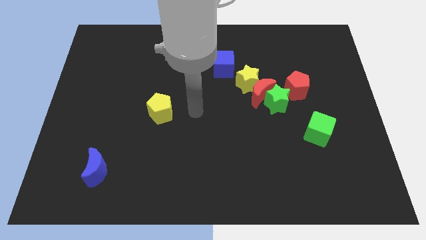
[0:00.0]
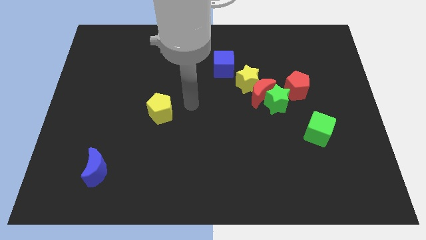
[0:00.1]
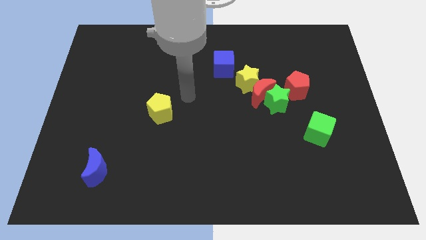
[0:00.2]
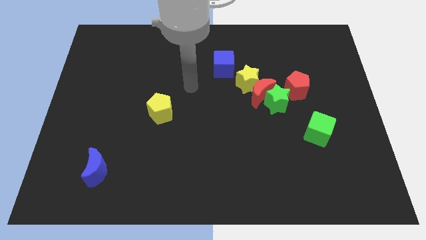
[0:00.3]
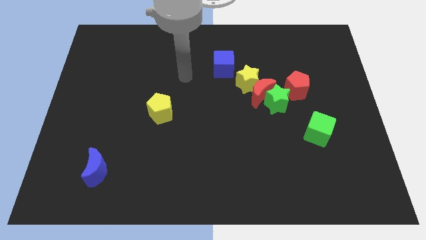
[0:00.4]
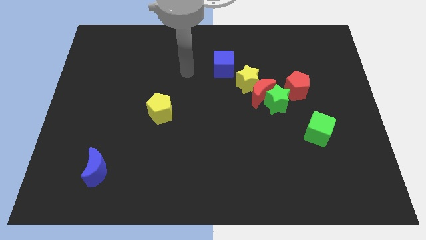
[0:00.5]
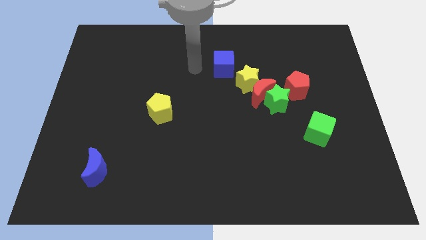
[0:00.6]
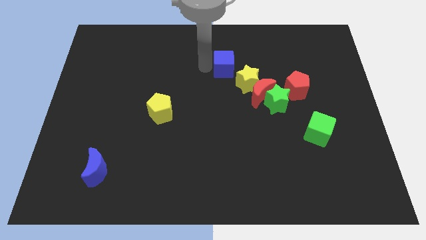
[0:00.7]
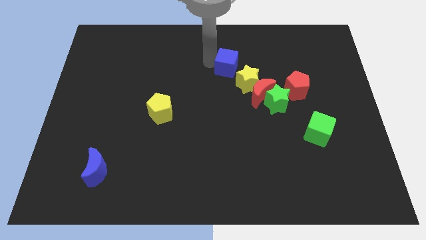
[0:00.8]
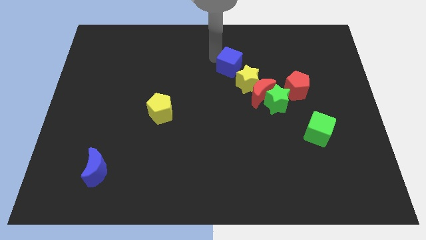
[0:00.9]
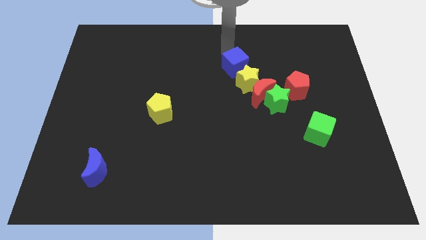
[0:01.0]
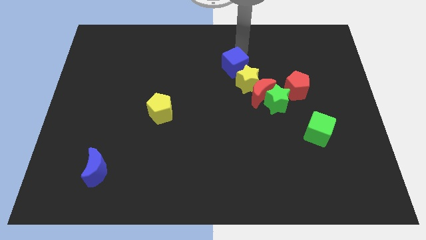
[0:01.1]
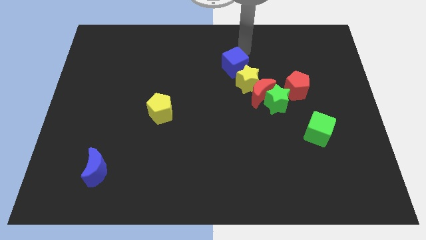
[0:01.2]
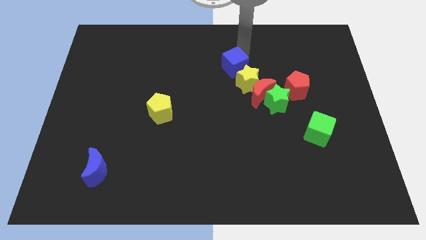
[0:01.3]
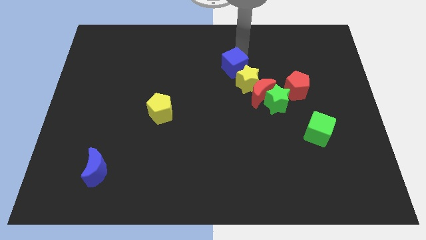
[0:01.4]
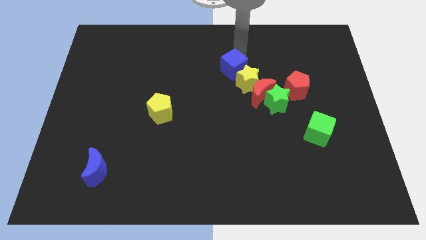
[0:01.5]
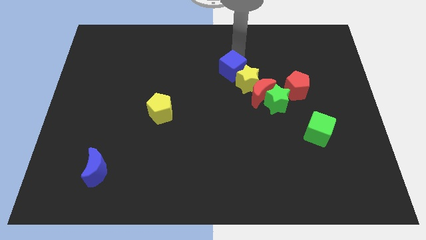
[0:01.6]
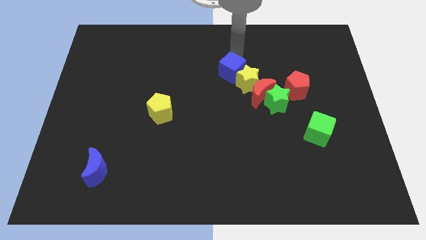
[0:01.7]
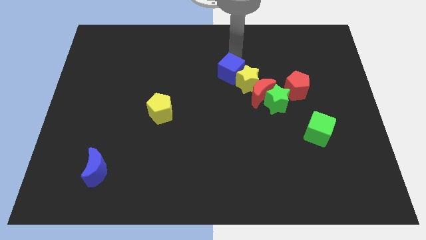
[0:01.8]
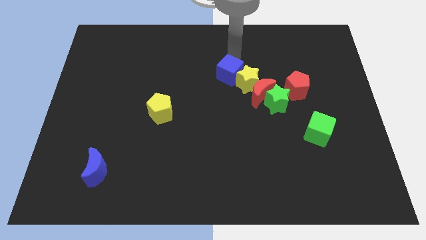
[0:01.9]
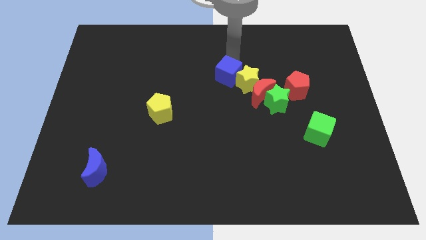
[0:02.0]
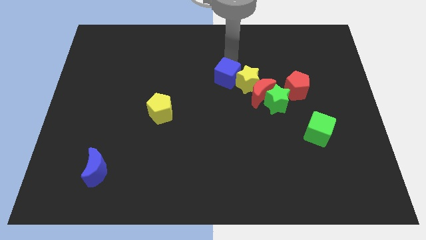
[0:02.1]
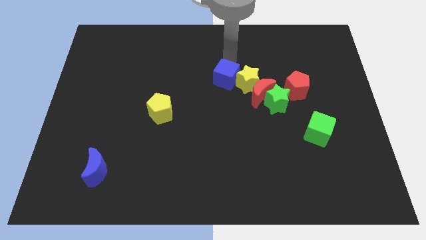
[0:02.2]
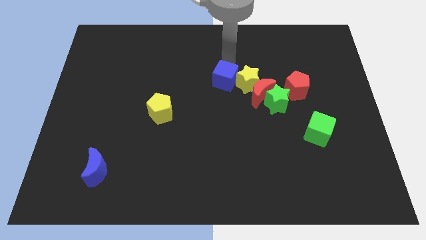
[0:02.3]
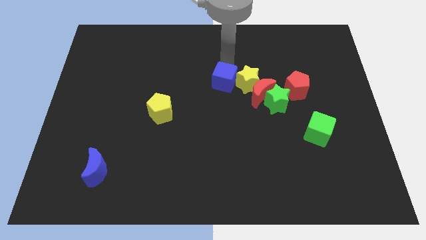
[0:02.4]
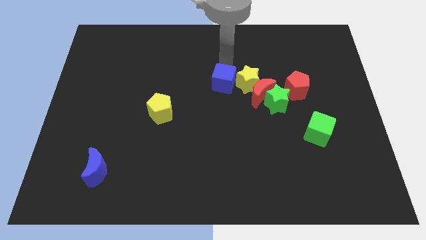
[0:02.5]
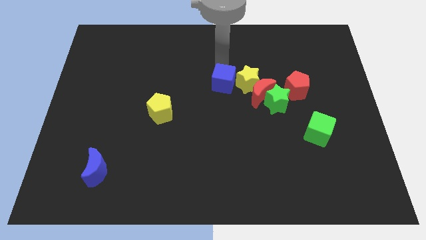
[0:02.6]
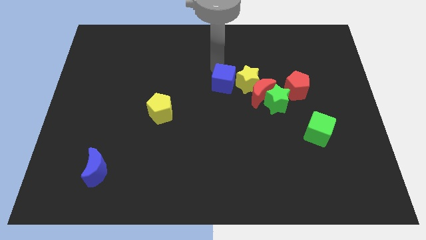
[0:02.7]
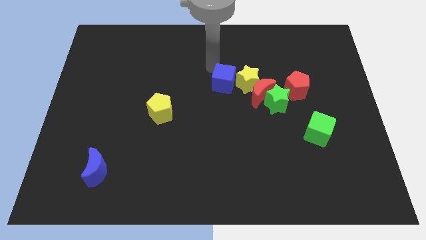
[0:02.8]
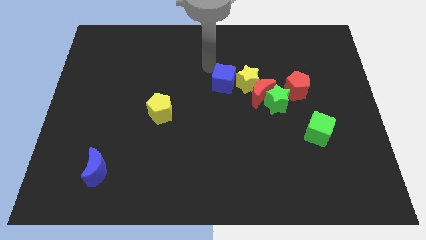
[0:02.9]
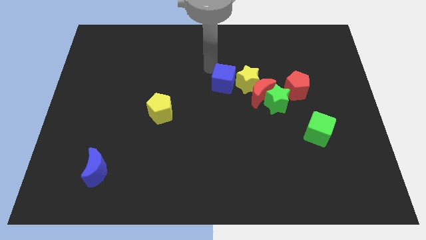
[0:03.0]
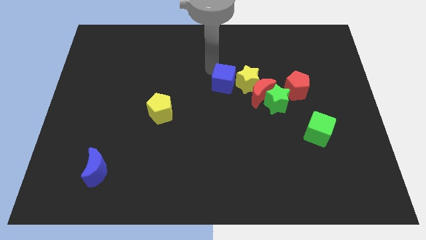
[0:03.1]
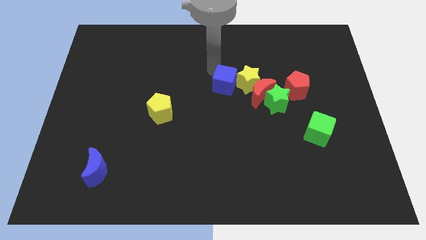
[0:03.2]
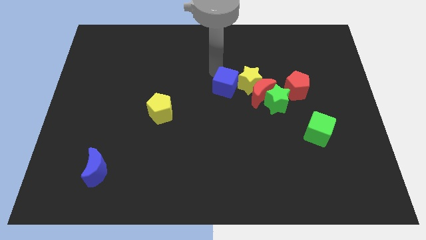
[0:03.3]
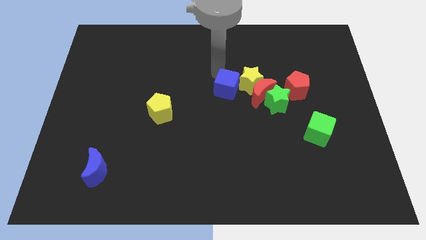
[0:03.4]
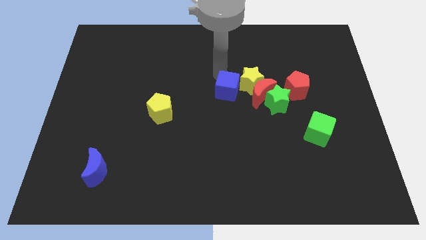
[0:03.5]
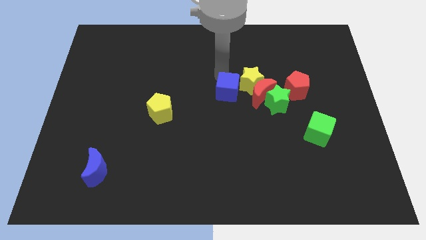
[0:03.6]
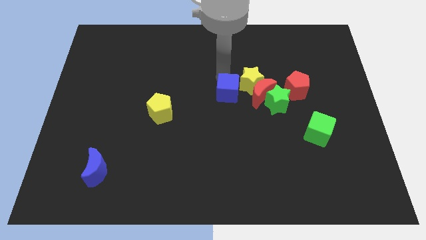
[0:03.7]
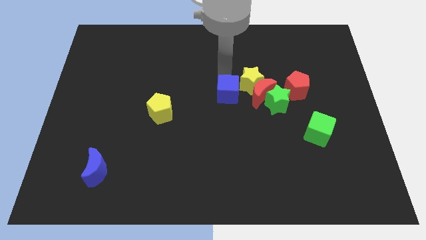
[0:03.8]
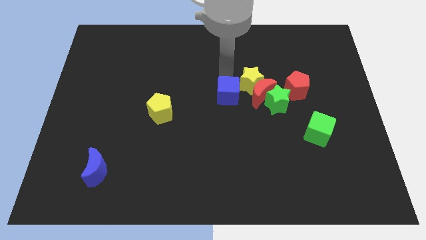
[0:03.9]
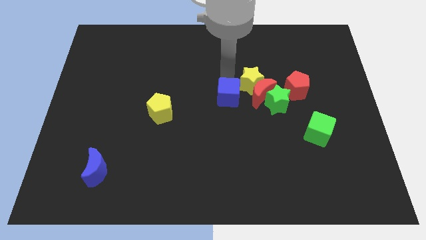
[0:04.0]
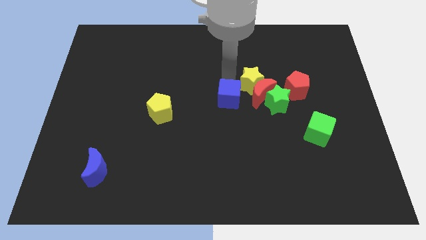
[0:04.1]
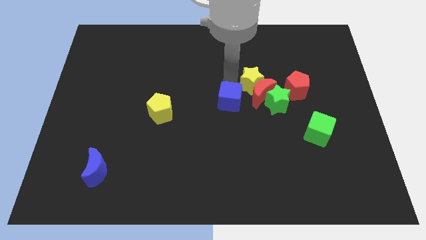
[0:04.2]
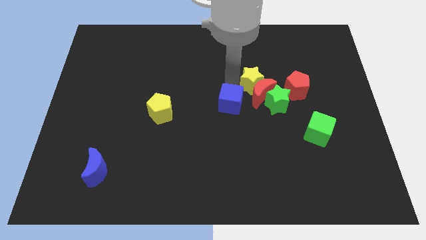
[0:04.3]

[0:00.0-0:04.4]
push the blue cube to the bottom of the yellow star

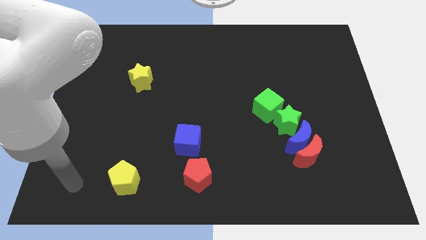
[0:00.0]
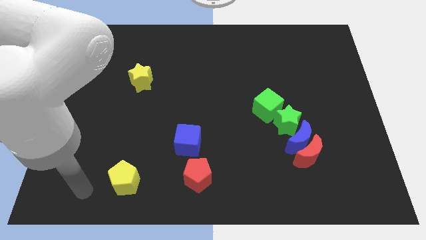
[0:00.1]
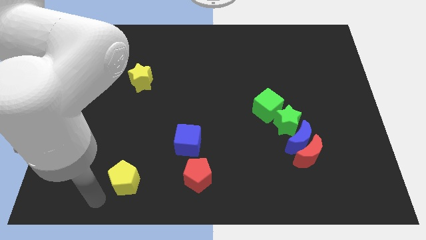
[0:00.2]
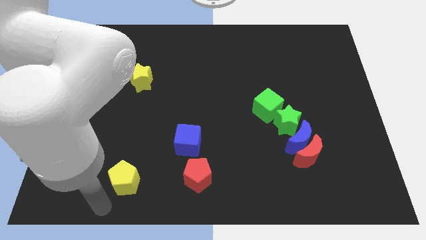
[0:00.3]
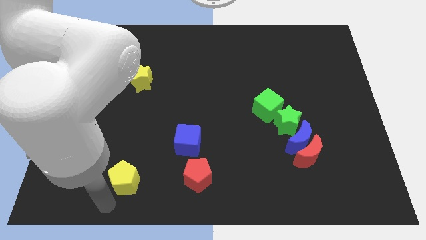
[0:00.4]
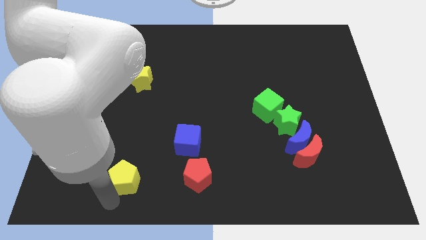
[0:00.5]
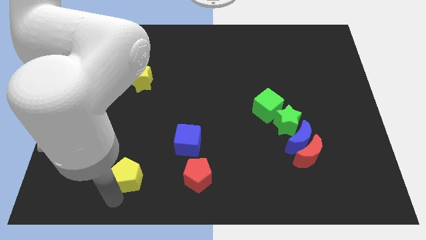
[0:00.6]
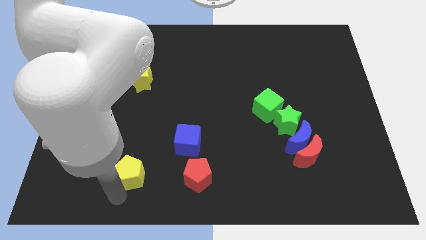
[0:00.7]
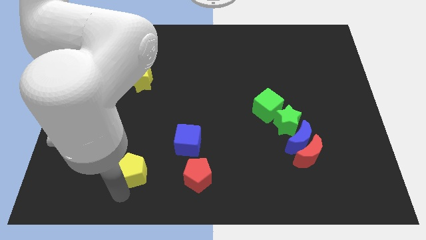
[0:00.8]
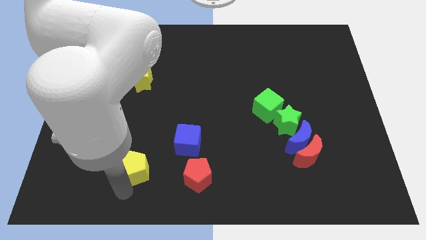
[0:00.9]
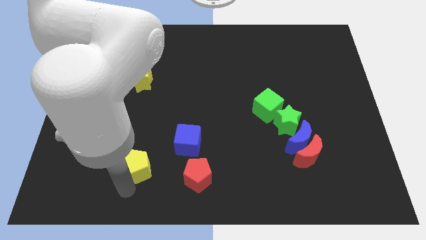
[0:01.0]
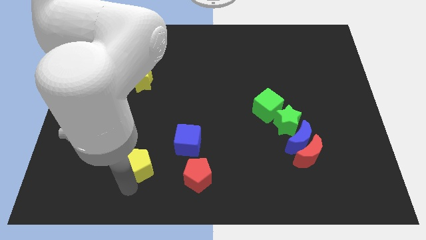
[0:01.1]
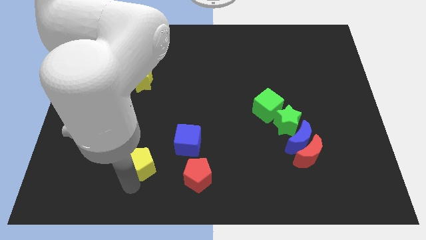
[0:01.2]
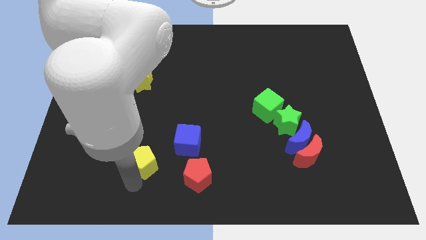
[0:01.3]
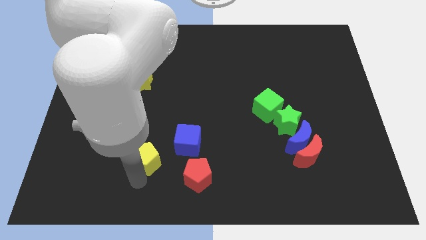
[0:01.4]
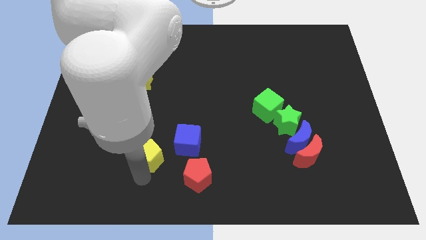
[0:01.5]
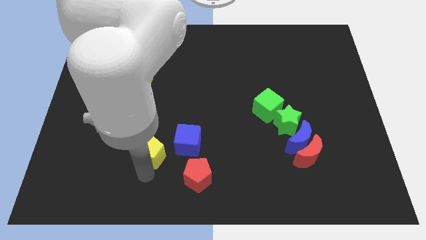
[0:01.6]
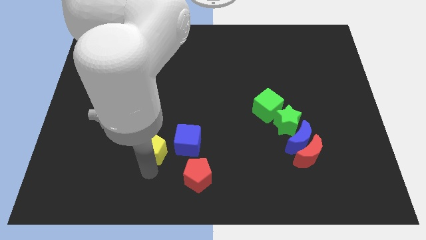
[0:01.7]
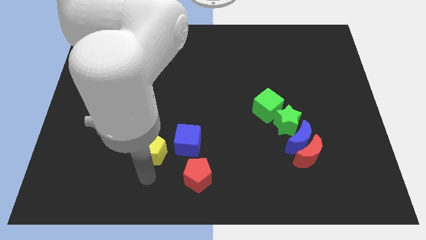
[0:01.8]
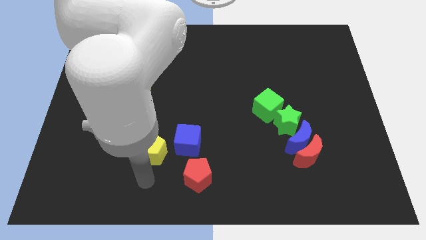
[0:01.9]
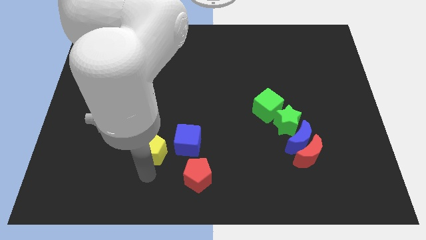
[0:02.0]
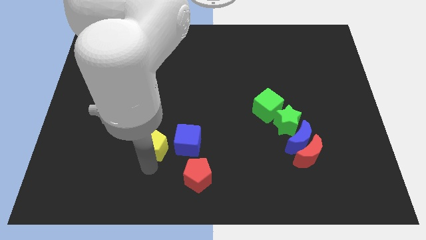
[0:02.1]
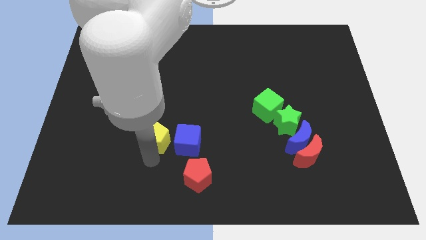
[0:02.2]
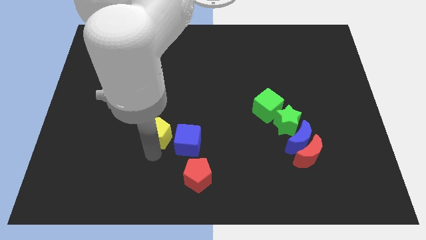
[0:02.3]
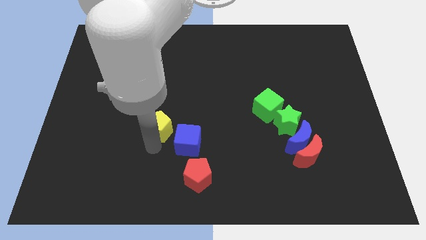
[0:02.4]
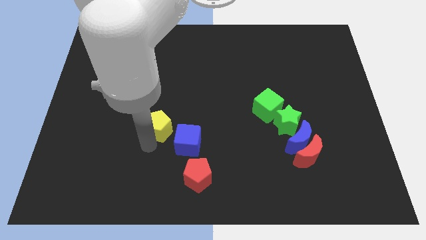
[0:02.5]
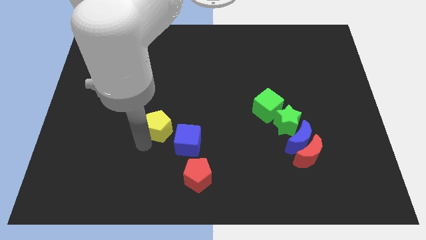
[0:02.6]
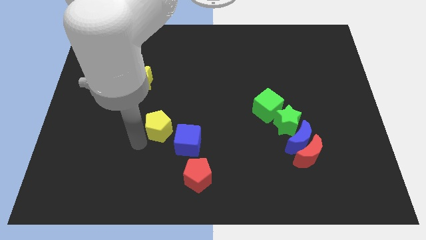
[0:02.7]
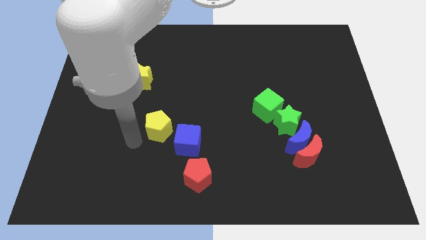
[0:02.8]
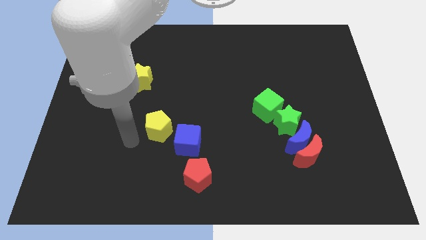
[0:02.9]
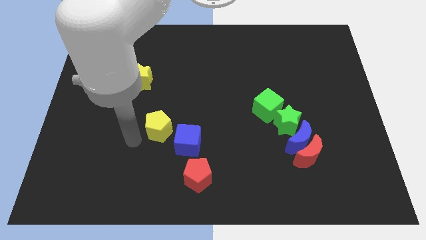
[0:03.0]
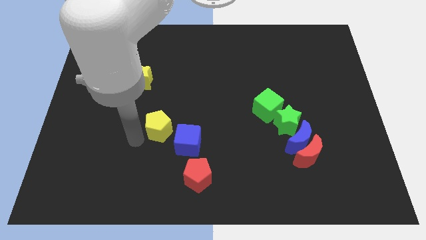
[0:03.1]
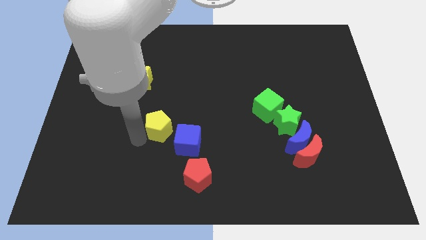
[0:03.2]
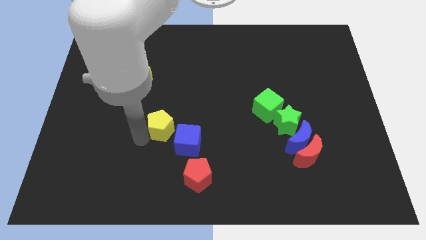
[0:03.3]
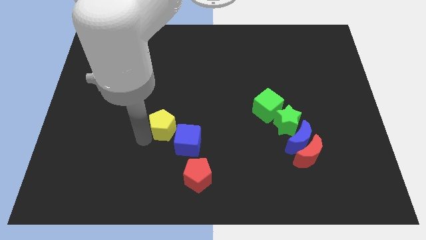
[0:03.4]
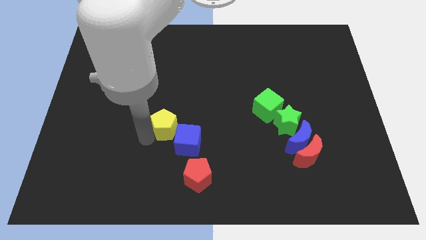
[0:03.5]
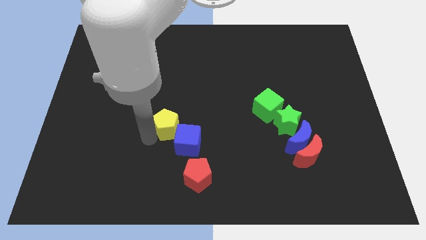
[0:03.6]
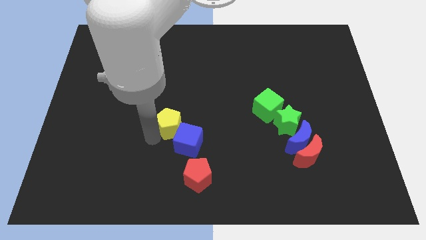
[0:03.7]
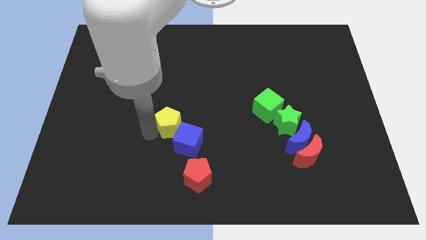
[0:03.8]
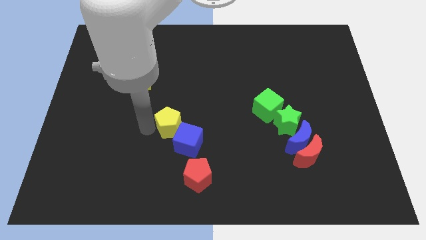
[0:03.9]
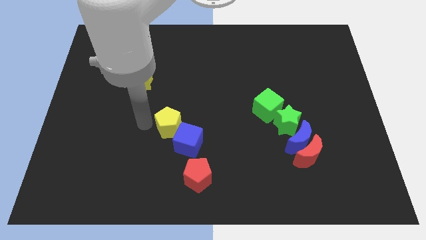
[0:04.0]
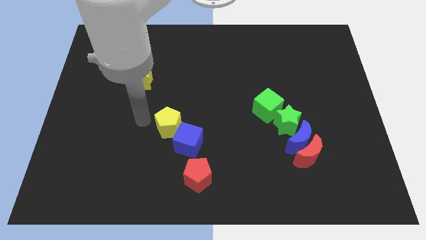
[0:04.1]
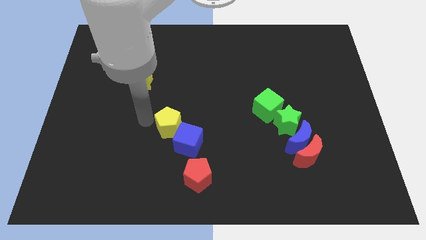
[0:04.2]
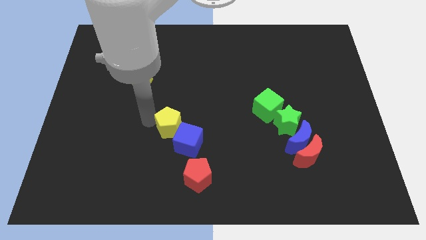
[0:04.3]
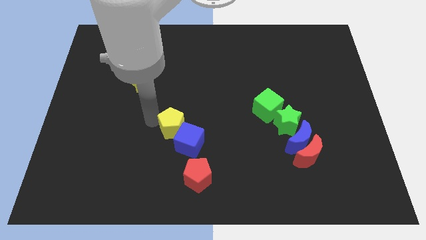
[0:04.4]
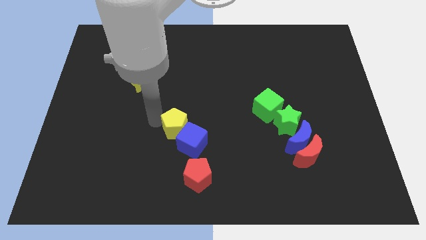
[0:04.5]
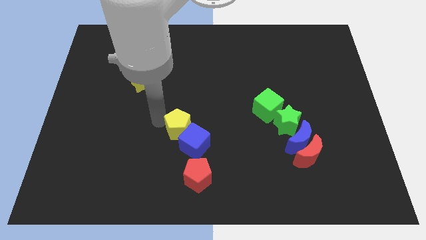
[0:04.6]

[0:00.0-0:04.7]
slide the yellow pentagon above the red pentagon
